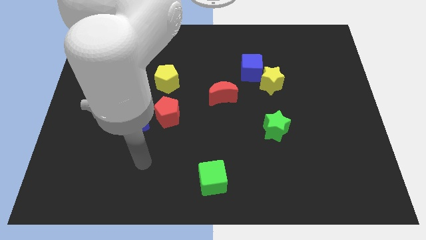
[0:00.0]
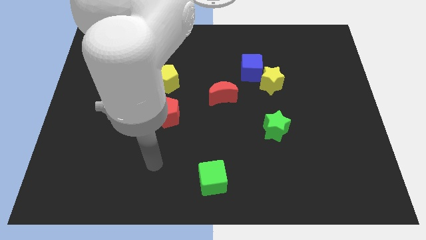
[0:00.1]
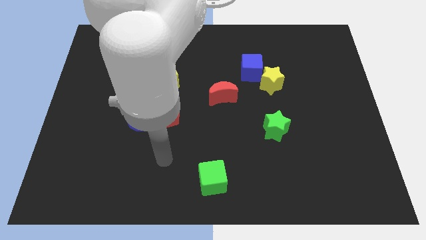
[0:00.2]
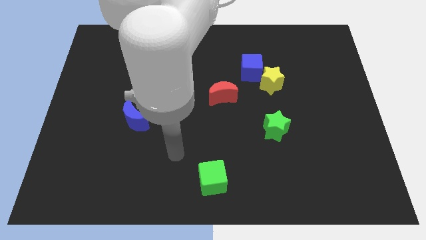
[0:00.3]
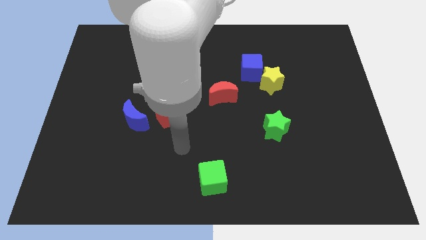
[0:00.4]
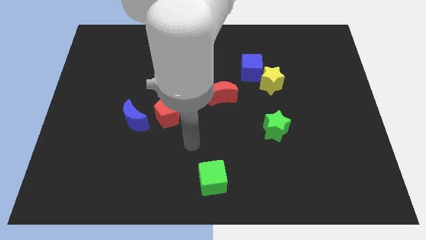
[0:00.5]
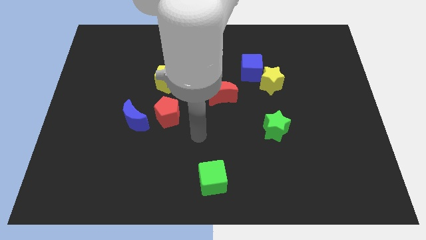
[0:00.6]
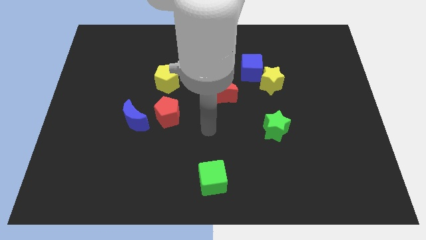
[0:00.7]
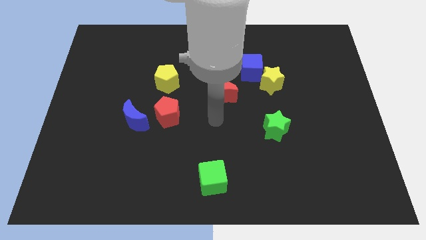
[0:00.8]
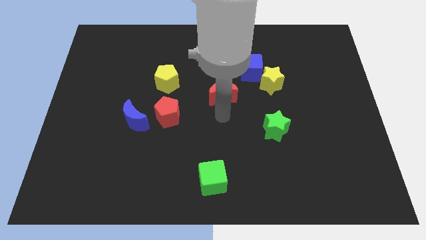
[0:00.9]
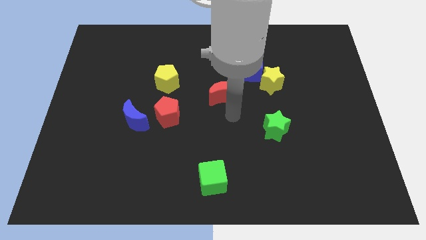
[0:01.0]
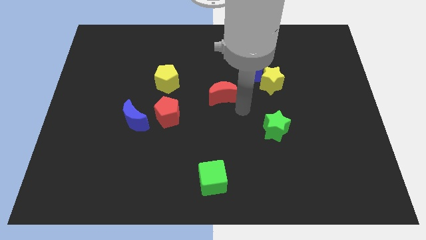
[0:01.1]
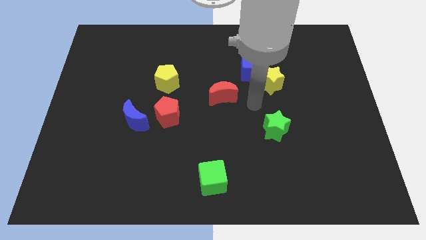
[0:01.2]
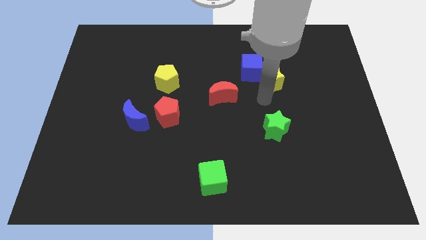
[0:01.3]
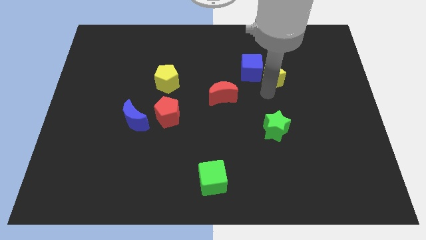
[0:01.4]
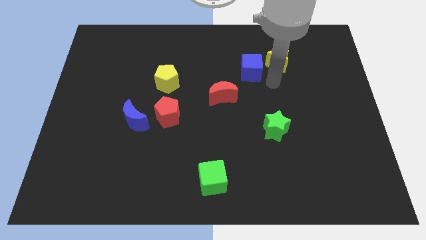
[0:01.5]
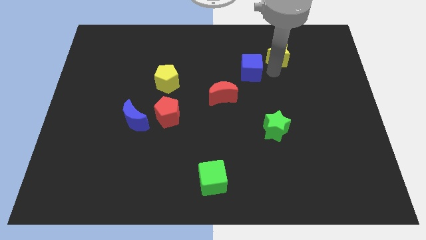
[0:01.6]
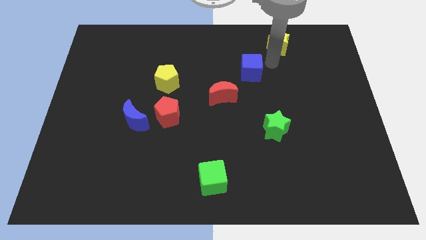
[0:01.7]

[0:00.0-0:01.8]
move the blue cube away from the yellow star

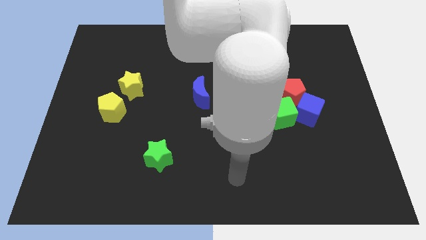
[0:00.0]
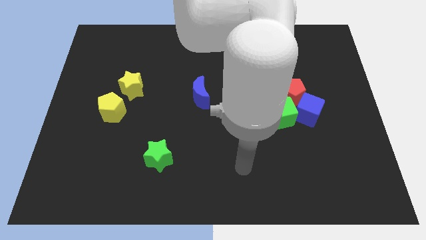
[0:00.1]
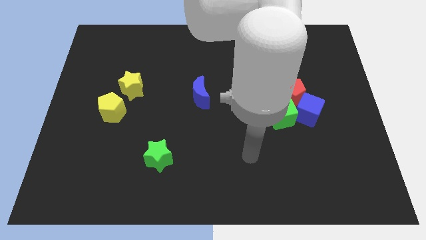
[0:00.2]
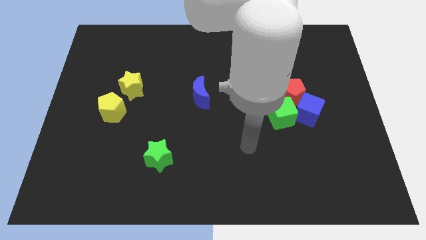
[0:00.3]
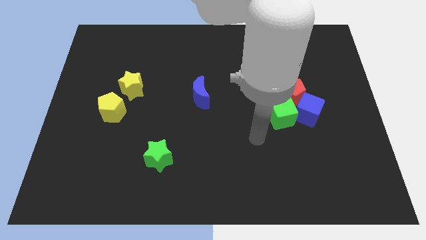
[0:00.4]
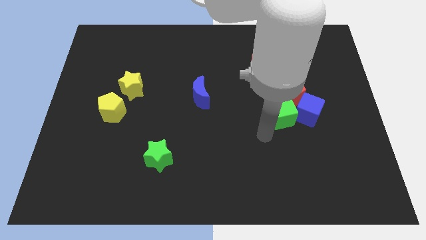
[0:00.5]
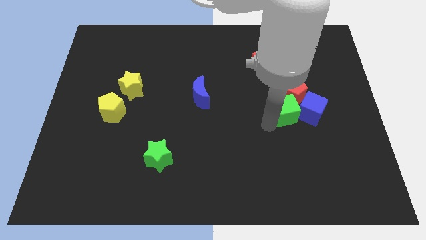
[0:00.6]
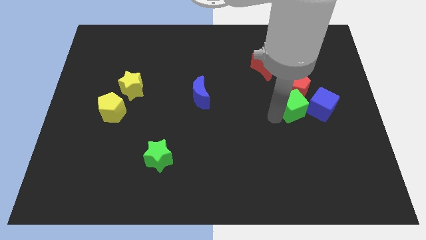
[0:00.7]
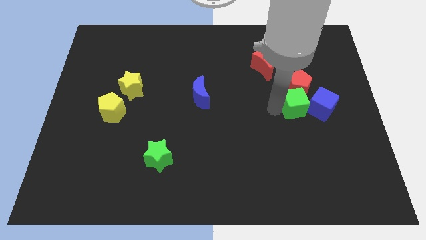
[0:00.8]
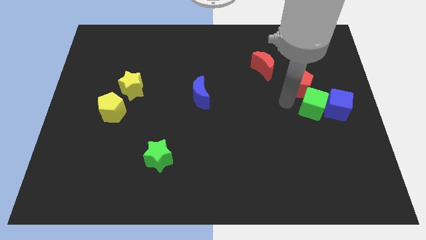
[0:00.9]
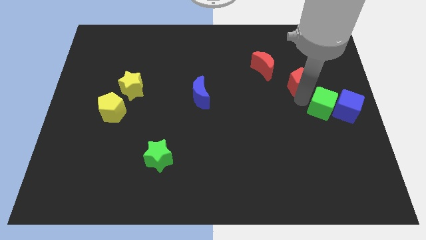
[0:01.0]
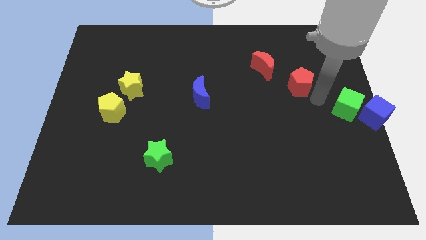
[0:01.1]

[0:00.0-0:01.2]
separate the blue cube from the red pentagon and green cube

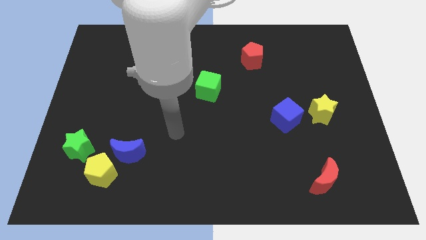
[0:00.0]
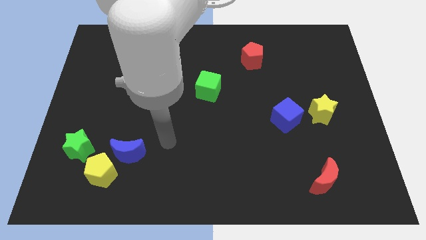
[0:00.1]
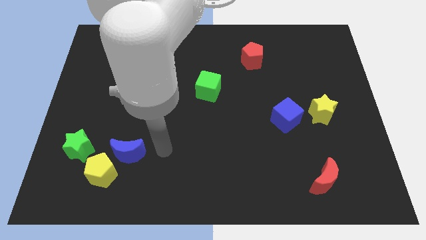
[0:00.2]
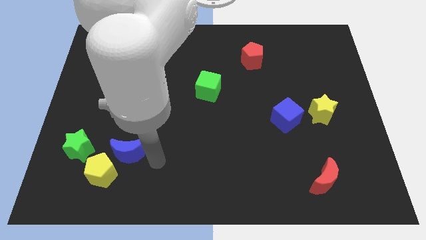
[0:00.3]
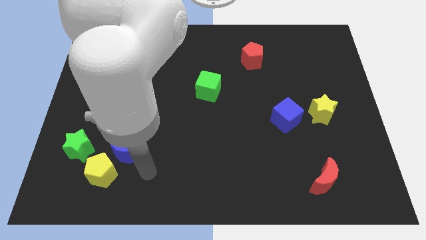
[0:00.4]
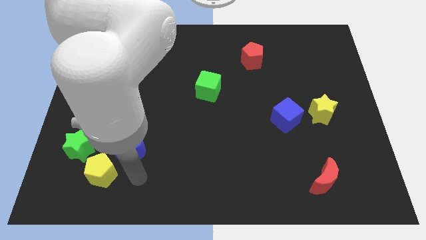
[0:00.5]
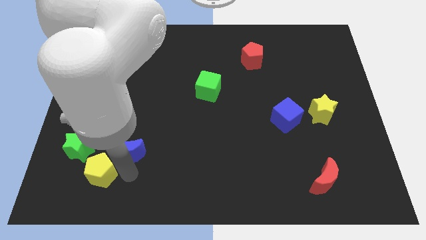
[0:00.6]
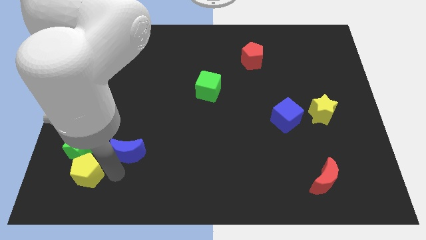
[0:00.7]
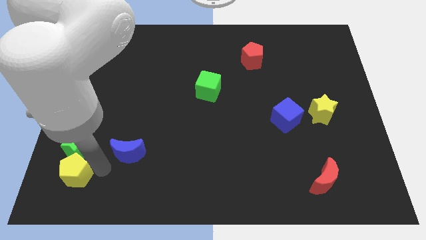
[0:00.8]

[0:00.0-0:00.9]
separate the blue moon from the yellow pentagon

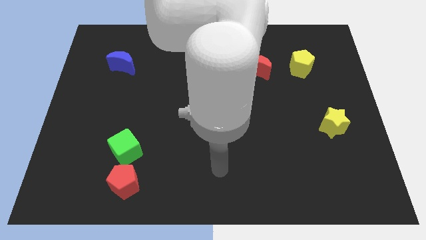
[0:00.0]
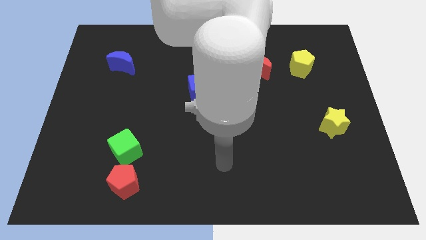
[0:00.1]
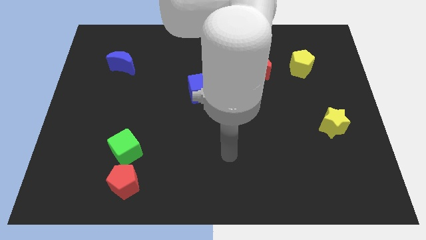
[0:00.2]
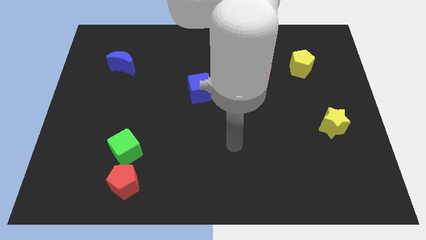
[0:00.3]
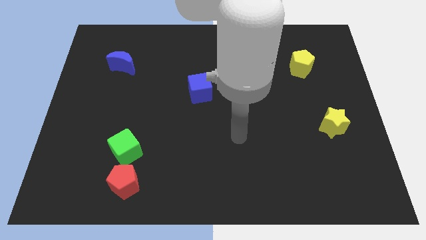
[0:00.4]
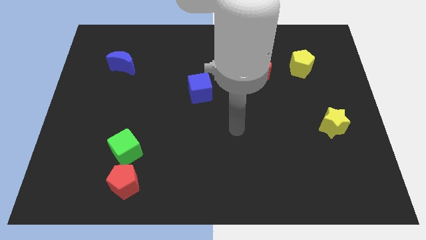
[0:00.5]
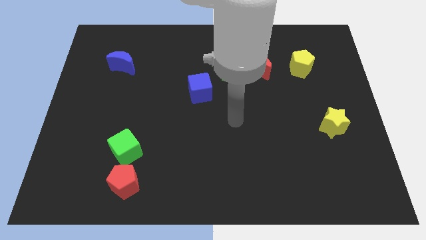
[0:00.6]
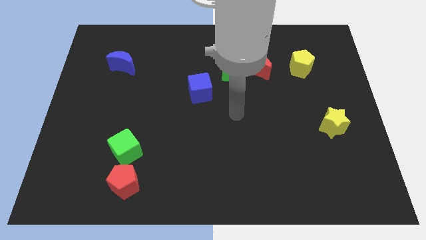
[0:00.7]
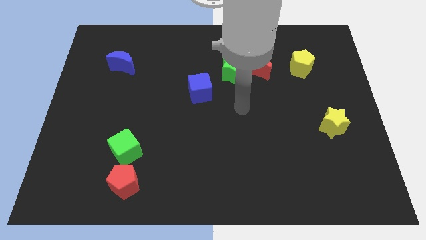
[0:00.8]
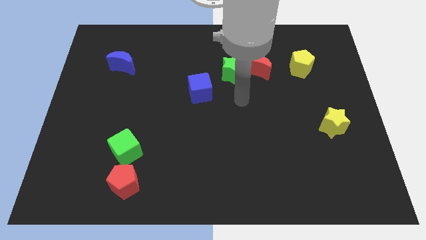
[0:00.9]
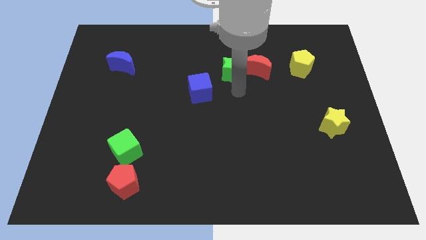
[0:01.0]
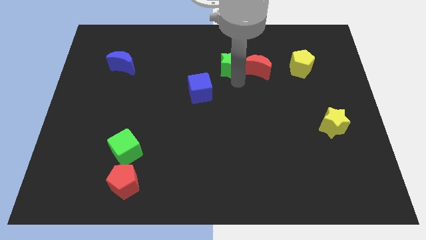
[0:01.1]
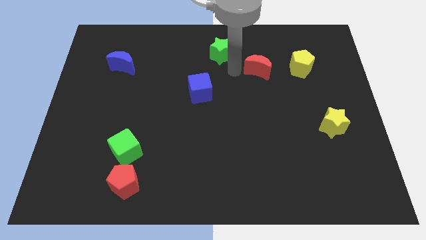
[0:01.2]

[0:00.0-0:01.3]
move the red moon away from the green star

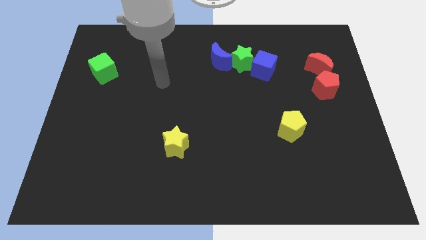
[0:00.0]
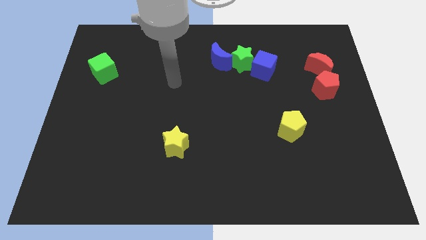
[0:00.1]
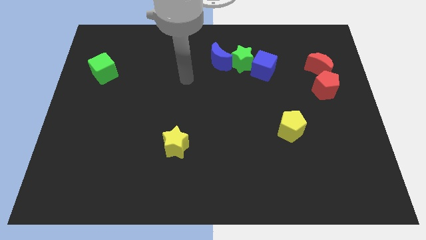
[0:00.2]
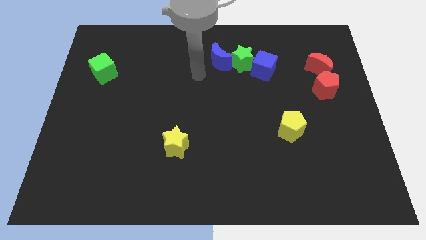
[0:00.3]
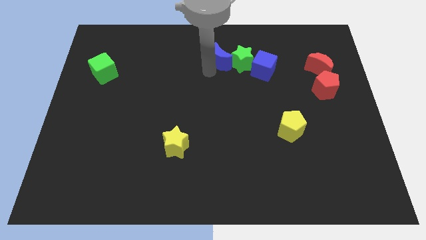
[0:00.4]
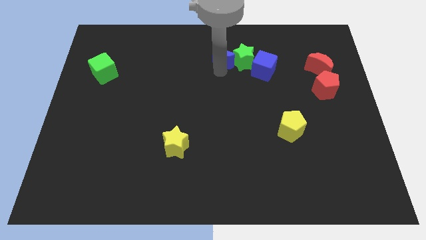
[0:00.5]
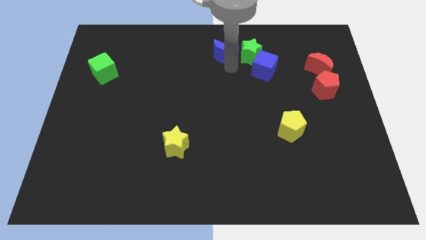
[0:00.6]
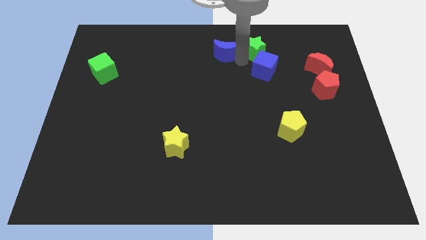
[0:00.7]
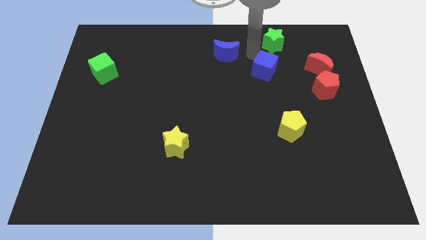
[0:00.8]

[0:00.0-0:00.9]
pull the blue cube apart from the green star

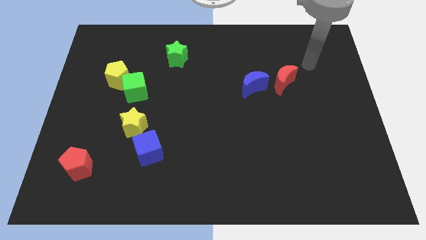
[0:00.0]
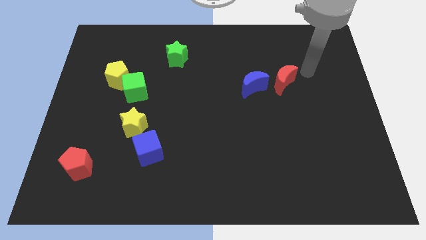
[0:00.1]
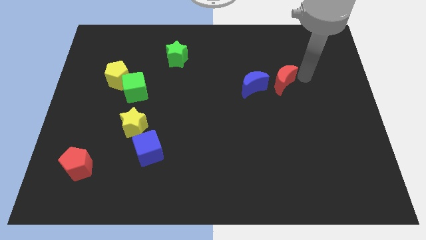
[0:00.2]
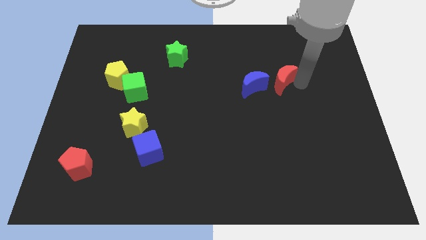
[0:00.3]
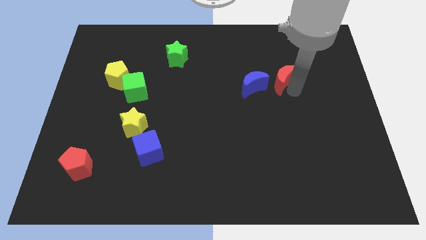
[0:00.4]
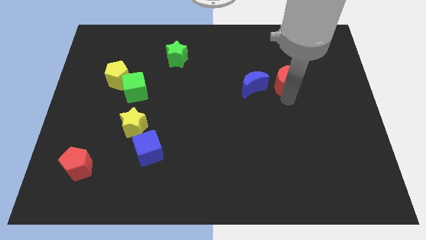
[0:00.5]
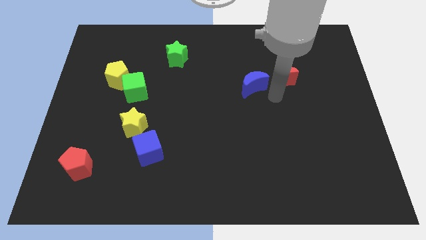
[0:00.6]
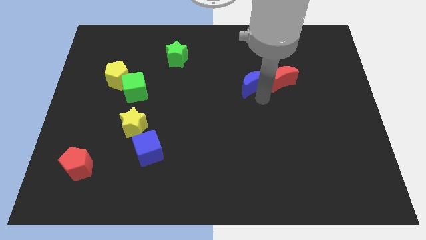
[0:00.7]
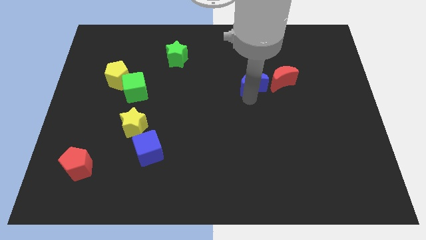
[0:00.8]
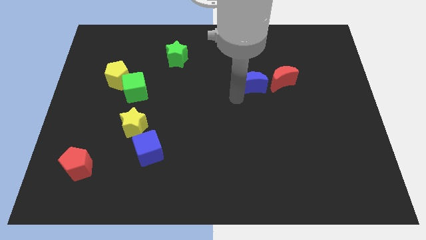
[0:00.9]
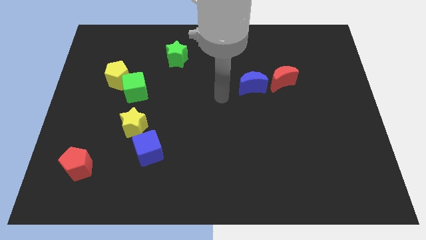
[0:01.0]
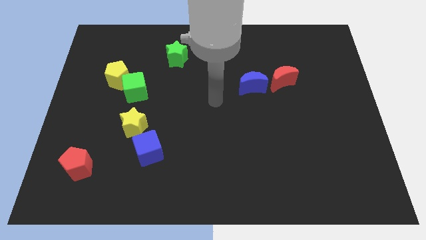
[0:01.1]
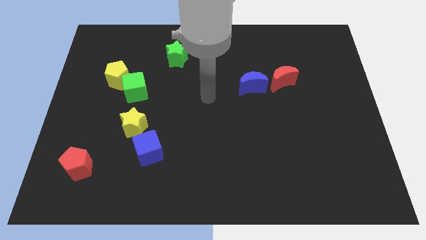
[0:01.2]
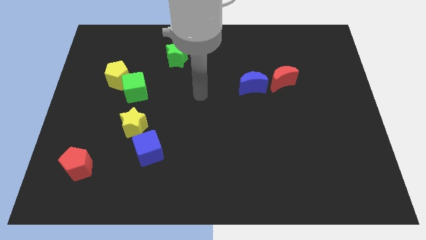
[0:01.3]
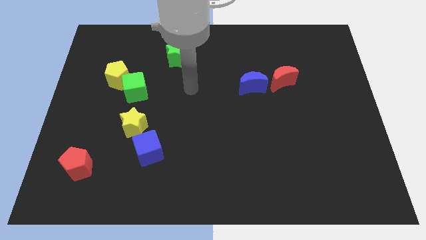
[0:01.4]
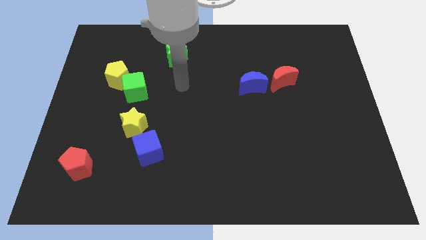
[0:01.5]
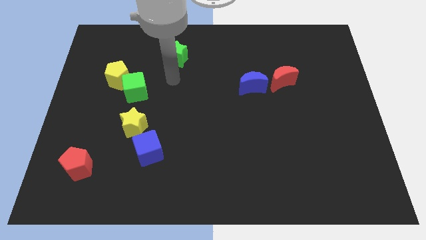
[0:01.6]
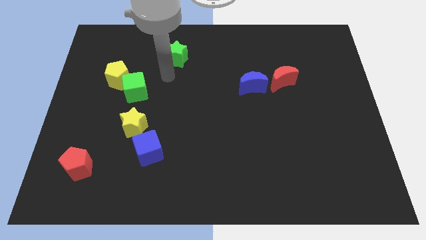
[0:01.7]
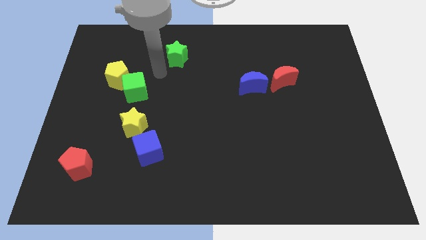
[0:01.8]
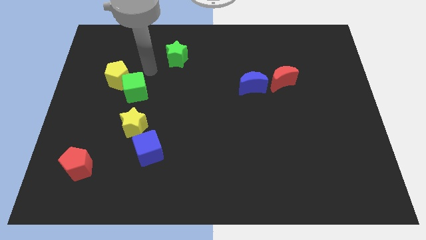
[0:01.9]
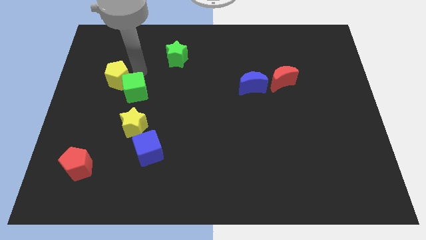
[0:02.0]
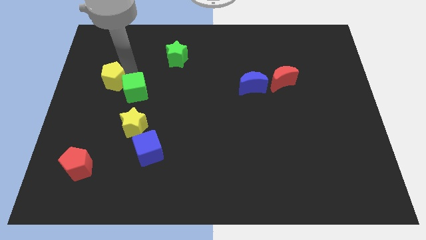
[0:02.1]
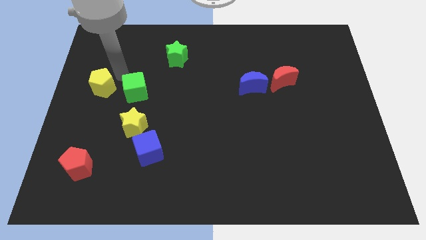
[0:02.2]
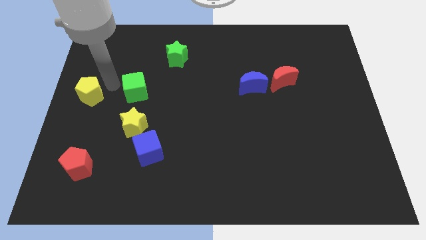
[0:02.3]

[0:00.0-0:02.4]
pull the green cube apart from the yellow pentagon

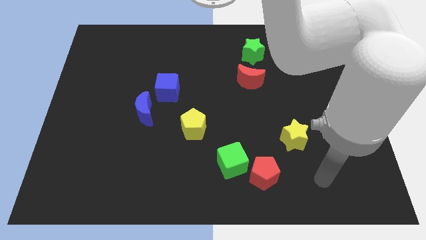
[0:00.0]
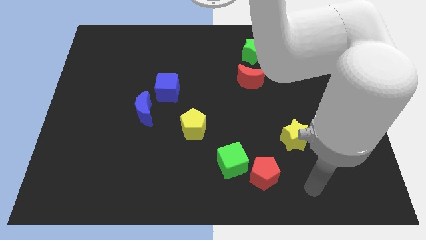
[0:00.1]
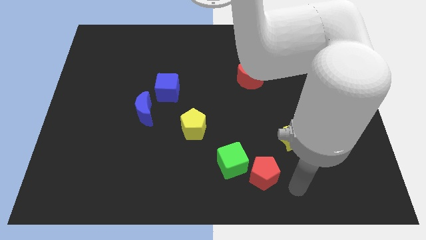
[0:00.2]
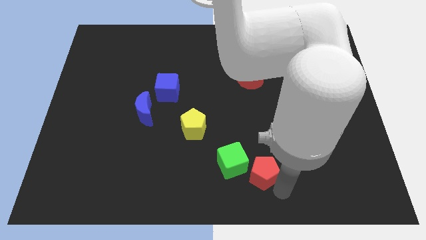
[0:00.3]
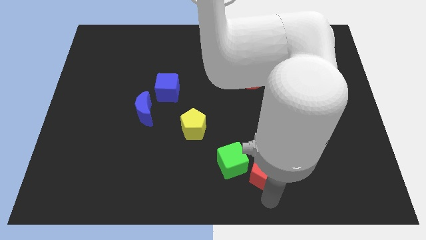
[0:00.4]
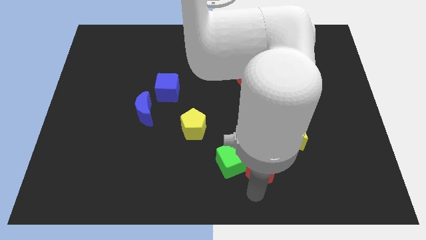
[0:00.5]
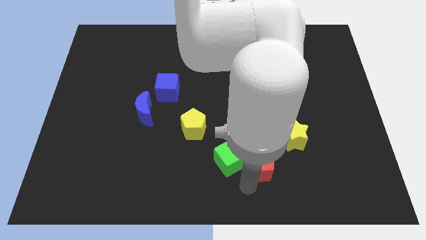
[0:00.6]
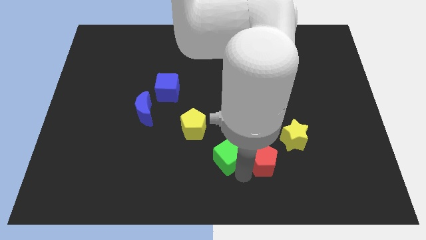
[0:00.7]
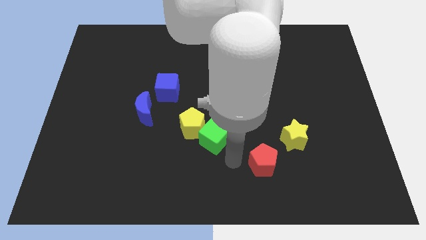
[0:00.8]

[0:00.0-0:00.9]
pull the red pentagon apart from the green cube
